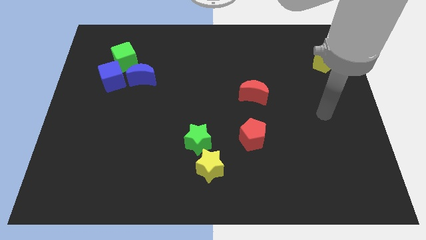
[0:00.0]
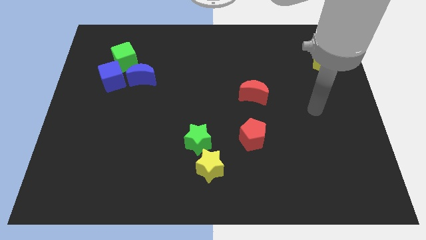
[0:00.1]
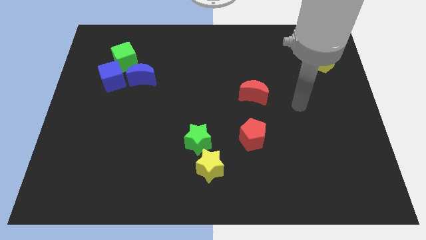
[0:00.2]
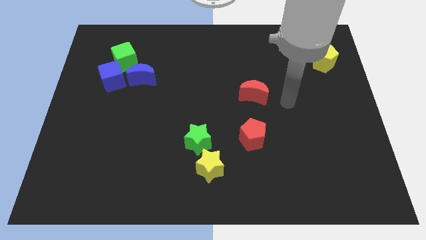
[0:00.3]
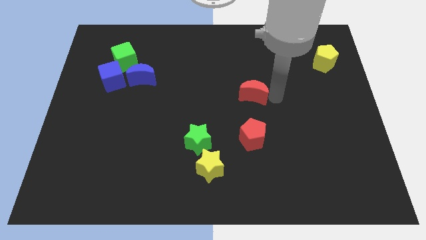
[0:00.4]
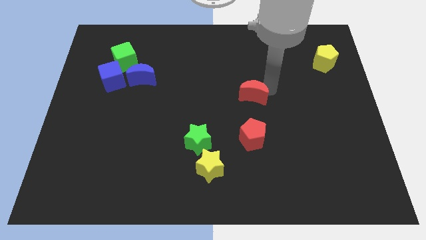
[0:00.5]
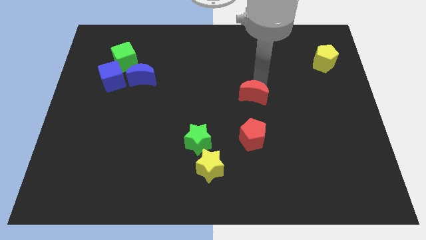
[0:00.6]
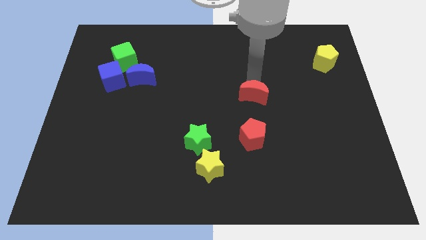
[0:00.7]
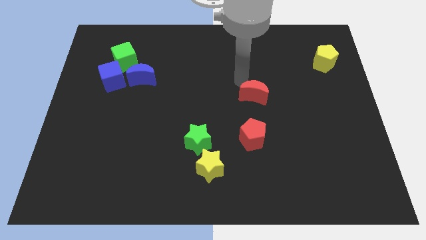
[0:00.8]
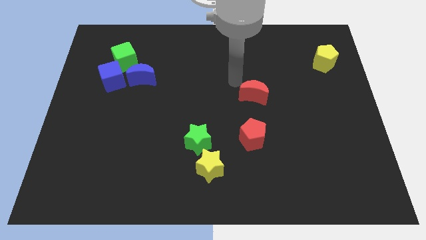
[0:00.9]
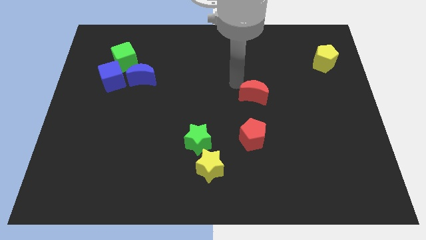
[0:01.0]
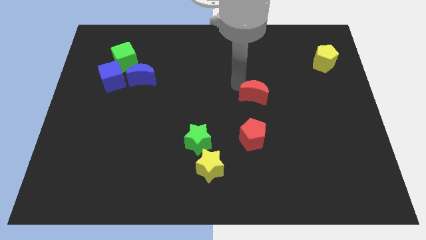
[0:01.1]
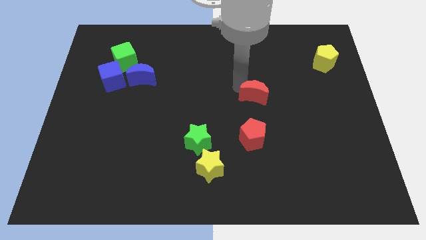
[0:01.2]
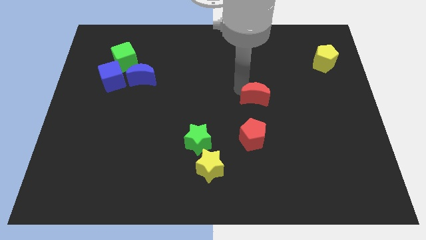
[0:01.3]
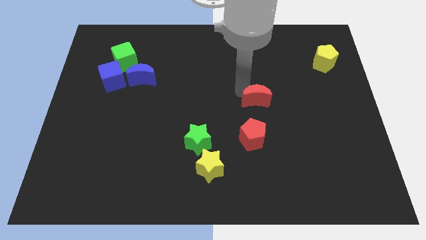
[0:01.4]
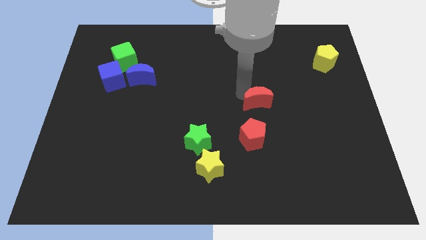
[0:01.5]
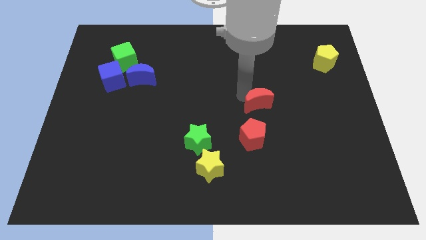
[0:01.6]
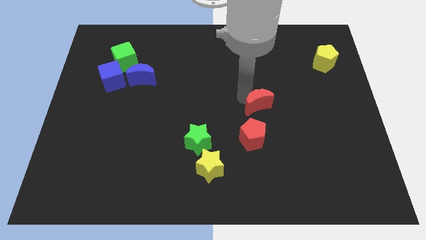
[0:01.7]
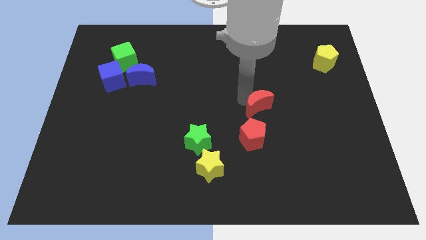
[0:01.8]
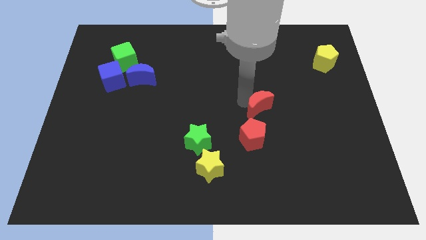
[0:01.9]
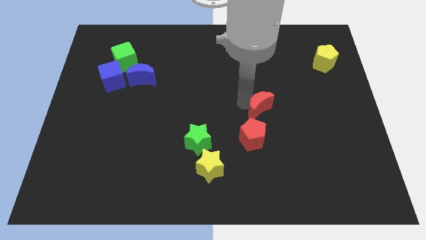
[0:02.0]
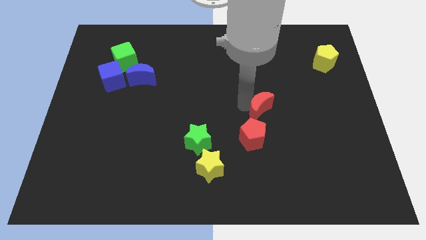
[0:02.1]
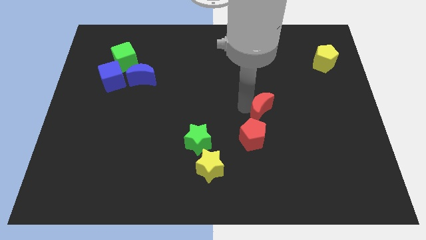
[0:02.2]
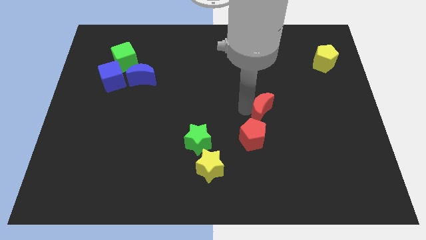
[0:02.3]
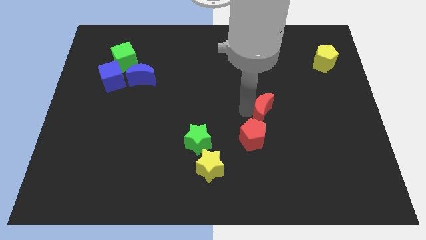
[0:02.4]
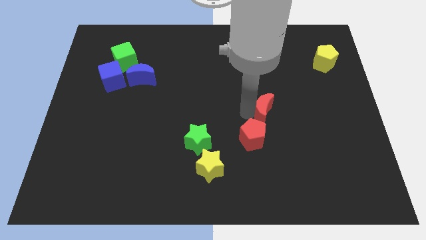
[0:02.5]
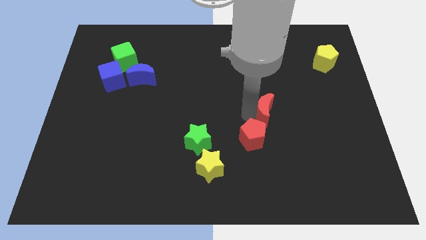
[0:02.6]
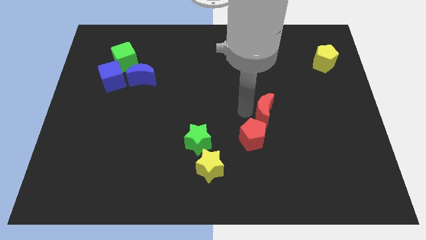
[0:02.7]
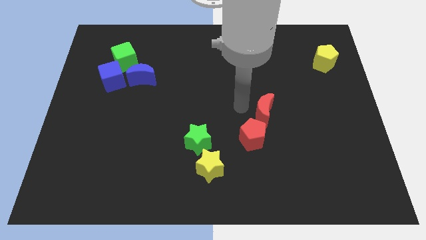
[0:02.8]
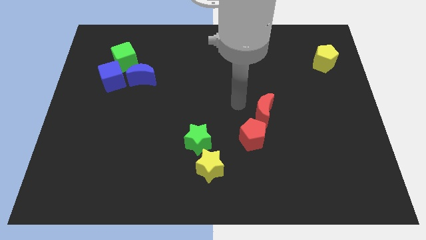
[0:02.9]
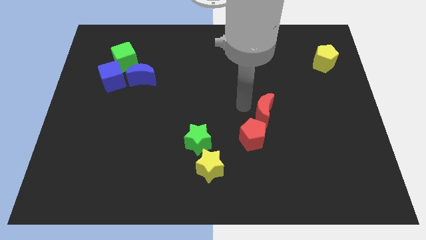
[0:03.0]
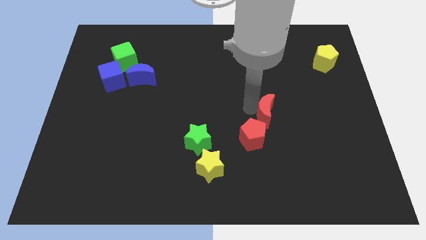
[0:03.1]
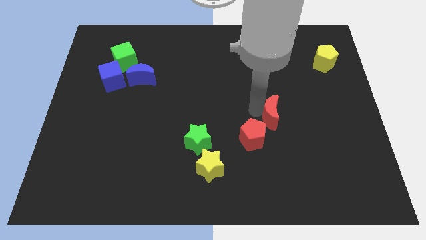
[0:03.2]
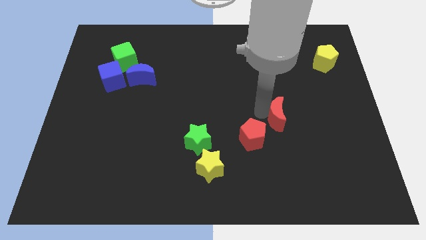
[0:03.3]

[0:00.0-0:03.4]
slightly slide the red moon diagonally downwards and to the right

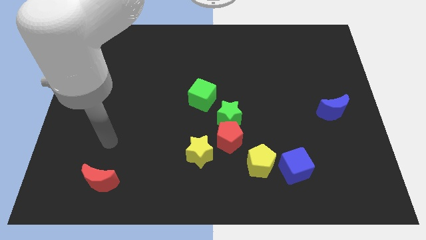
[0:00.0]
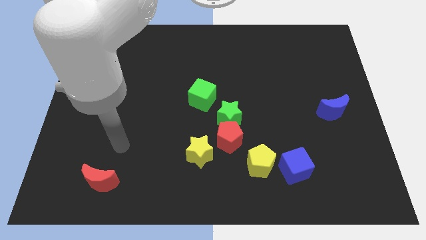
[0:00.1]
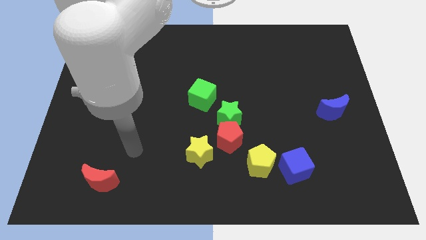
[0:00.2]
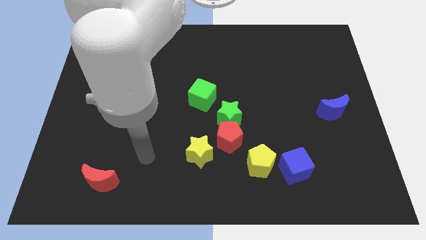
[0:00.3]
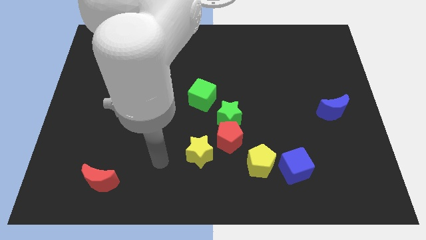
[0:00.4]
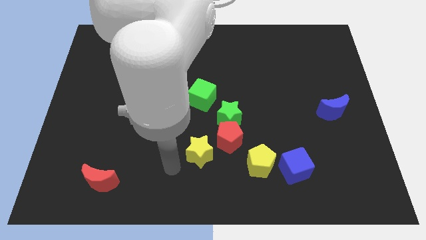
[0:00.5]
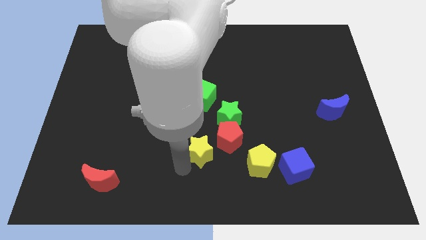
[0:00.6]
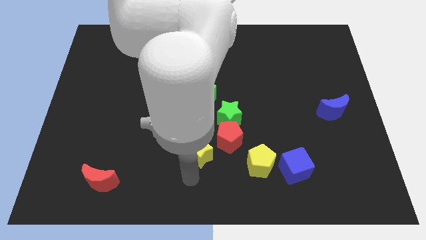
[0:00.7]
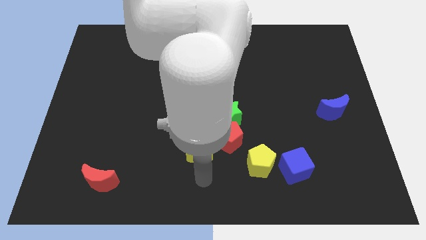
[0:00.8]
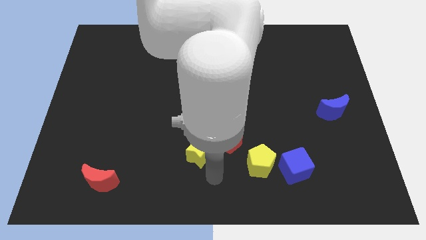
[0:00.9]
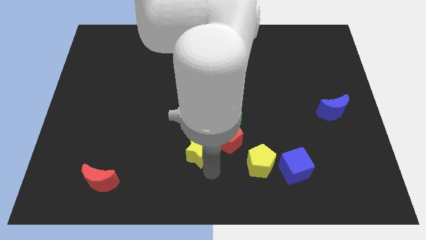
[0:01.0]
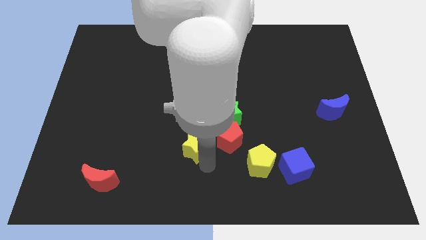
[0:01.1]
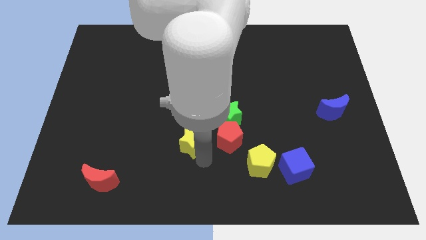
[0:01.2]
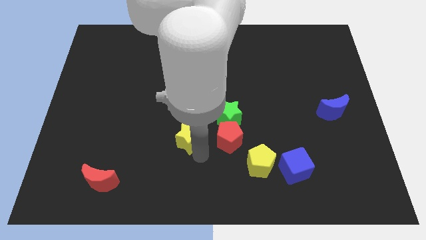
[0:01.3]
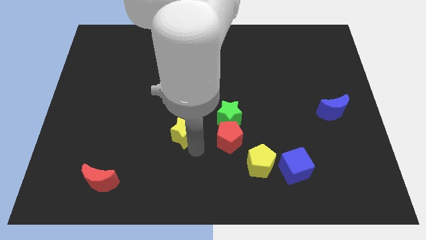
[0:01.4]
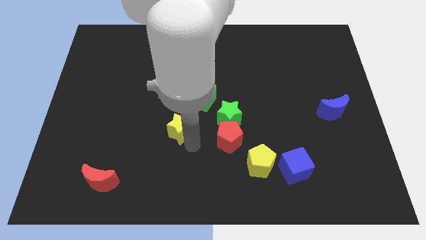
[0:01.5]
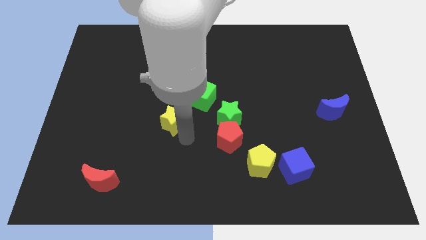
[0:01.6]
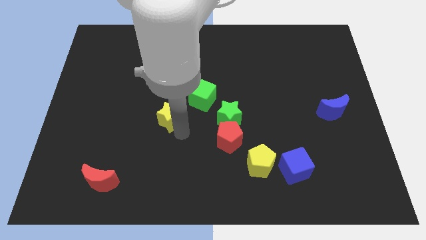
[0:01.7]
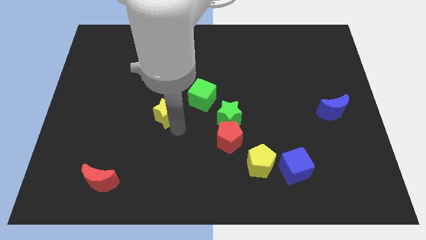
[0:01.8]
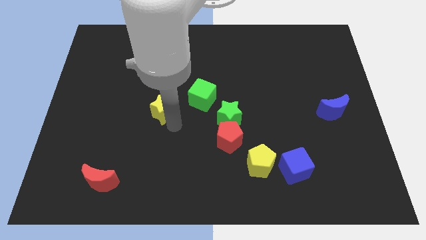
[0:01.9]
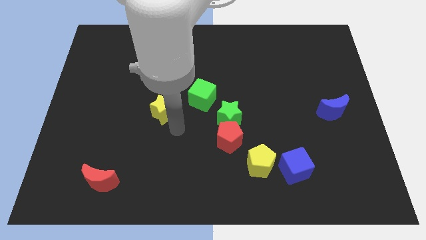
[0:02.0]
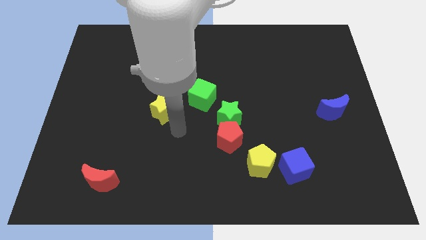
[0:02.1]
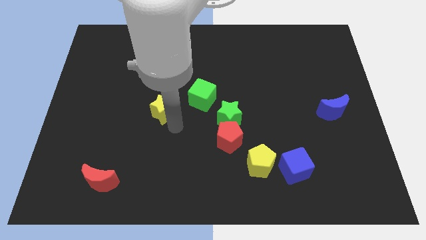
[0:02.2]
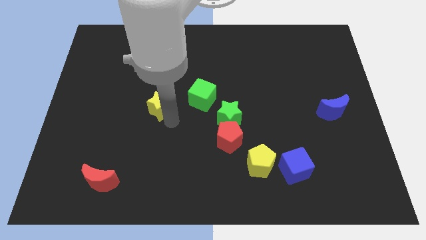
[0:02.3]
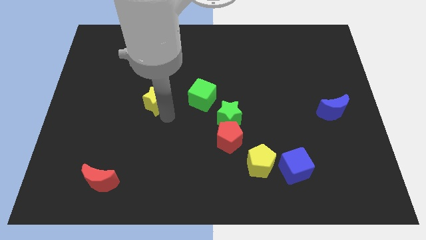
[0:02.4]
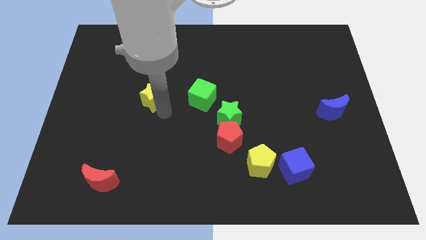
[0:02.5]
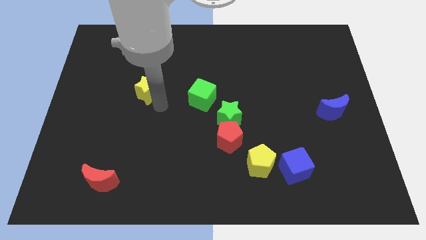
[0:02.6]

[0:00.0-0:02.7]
push the yellow star up and left

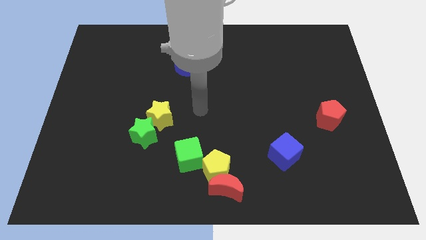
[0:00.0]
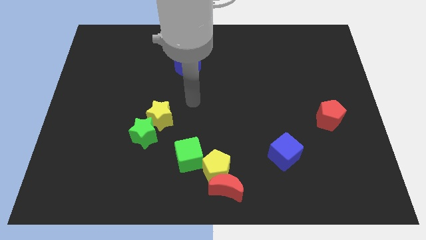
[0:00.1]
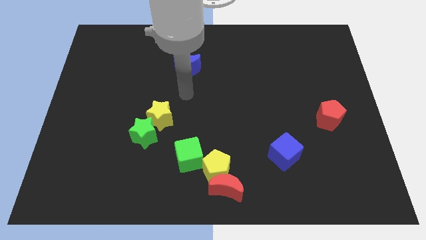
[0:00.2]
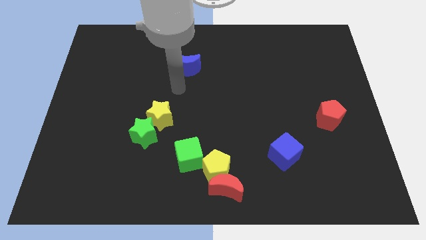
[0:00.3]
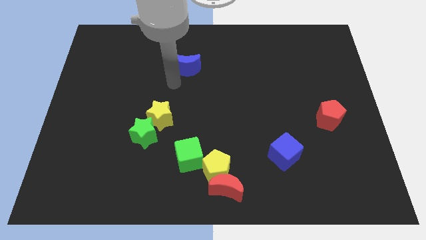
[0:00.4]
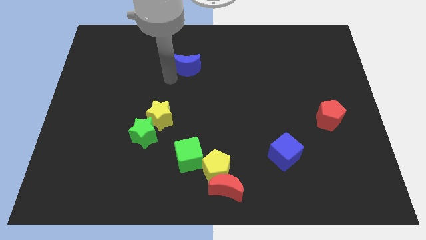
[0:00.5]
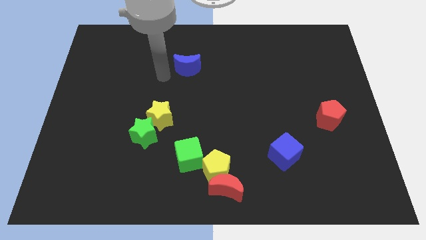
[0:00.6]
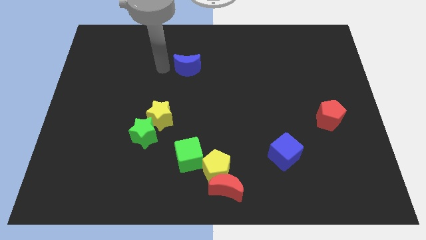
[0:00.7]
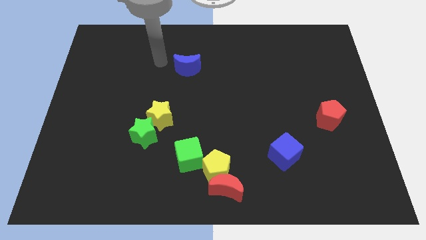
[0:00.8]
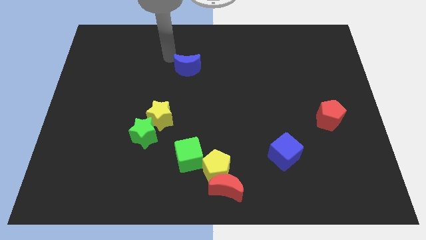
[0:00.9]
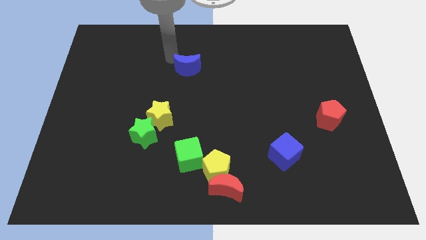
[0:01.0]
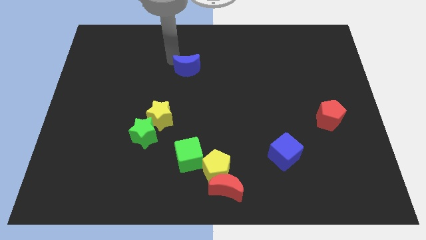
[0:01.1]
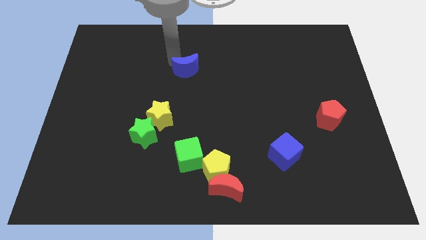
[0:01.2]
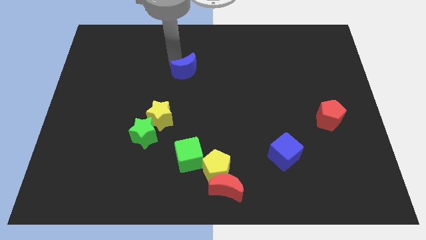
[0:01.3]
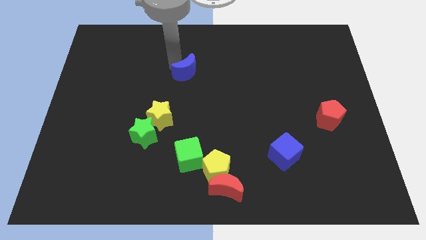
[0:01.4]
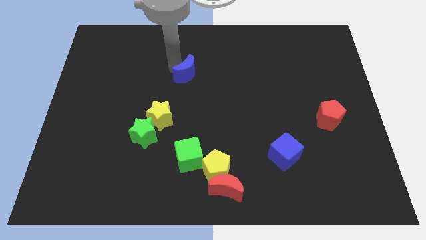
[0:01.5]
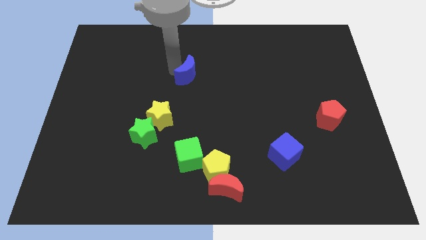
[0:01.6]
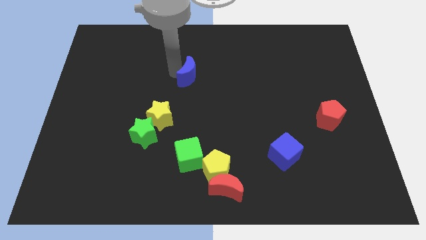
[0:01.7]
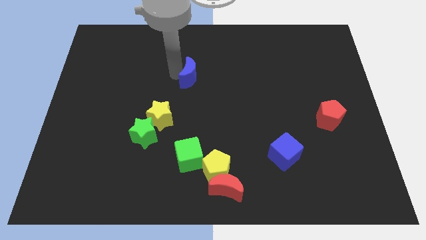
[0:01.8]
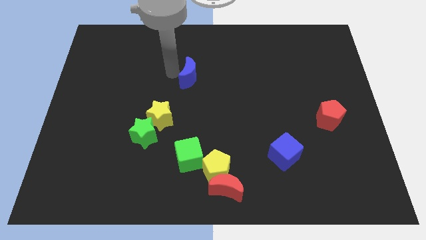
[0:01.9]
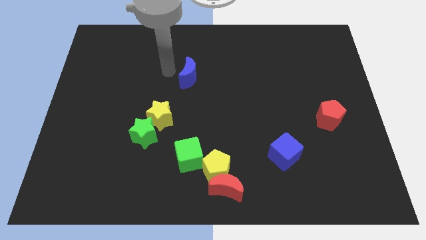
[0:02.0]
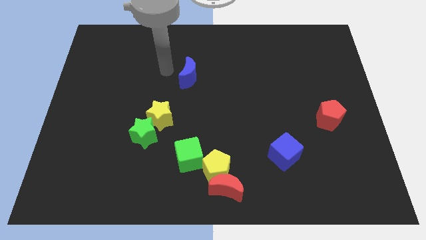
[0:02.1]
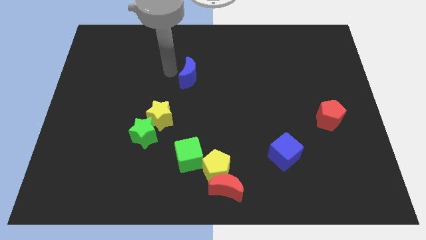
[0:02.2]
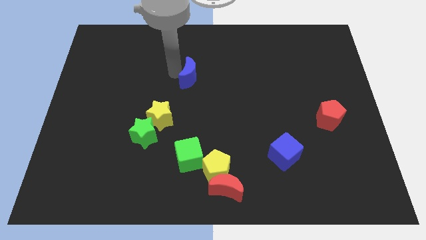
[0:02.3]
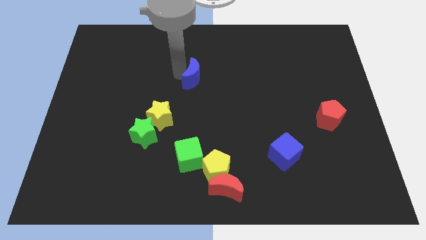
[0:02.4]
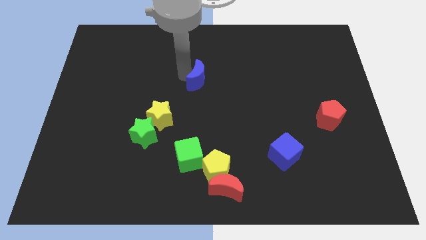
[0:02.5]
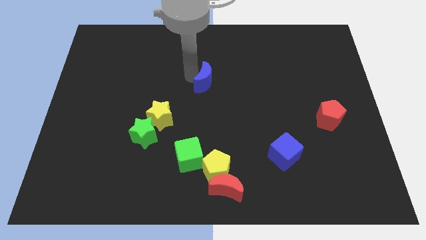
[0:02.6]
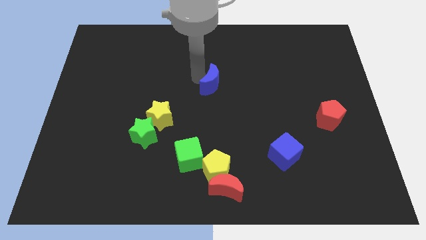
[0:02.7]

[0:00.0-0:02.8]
push the blue moon a little down and to the right diagonally
